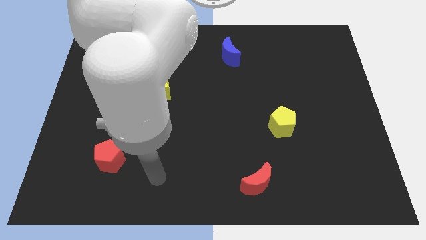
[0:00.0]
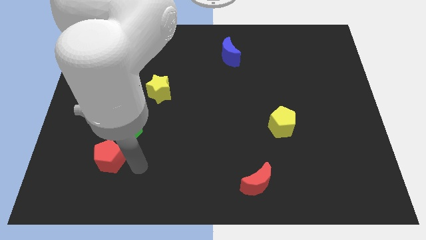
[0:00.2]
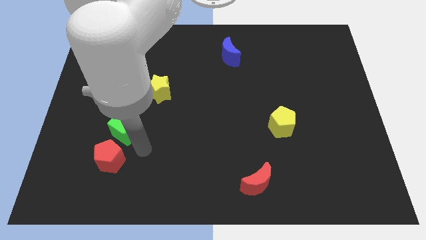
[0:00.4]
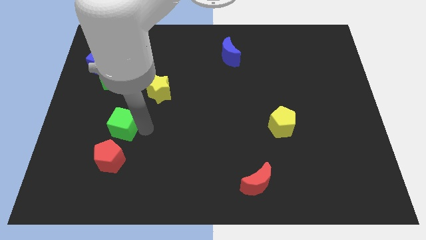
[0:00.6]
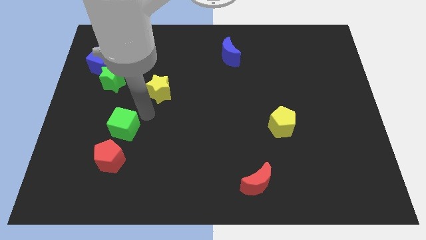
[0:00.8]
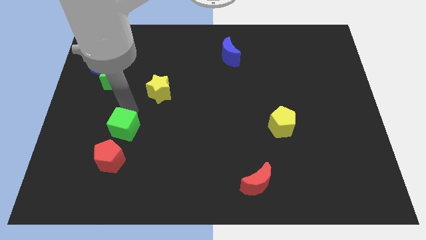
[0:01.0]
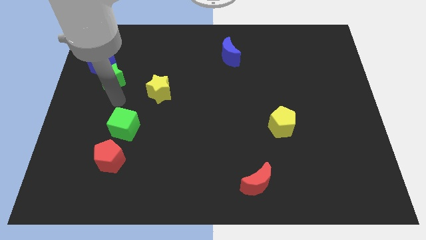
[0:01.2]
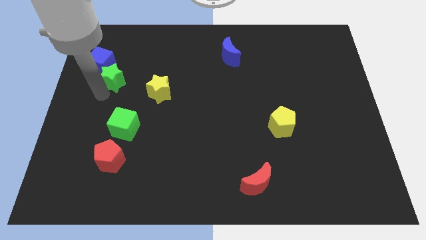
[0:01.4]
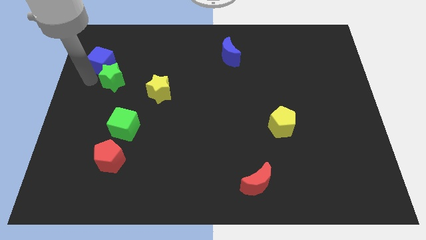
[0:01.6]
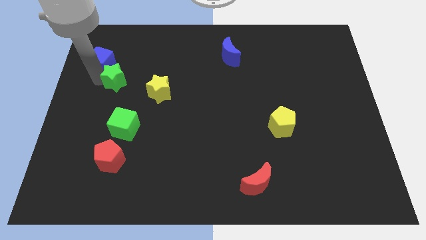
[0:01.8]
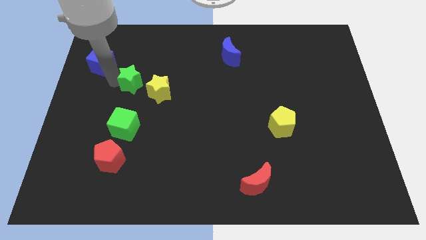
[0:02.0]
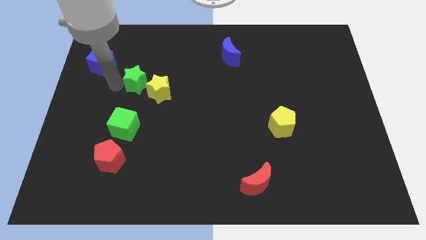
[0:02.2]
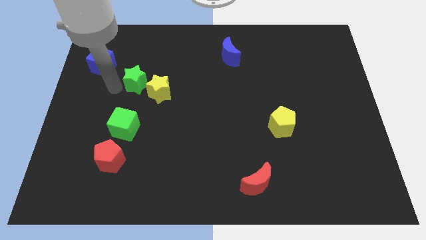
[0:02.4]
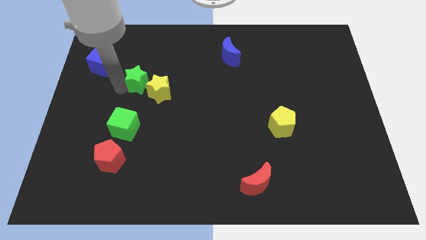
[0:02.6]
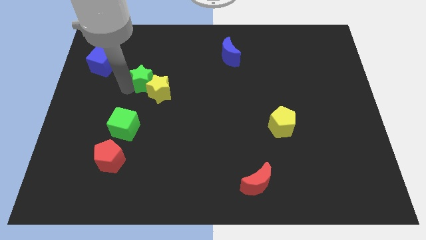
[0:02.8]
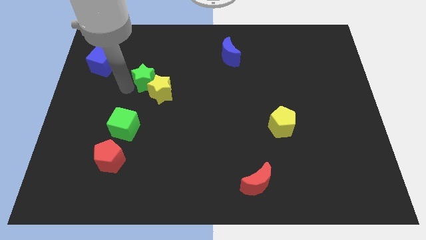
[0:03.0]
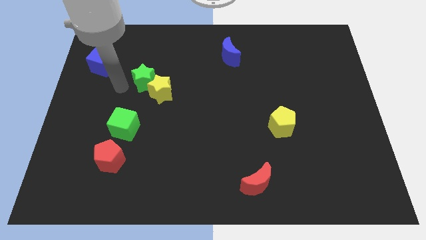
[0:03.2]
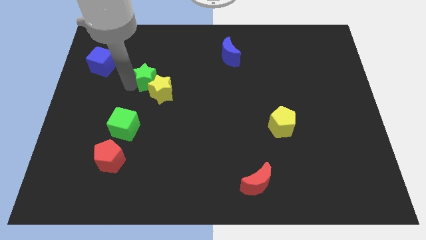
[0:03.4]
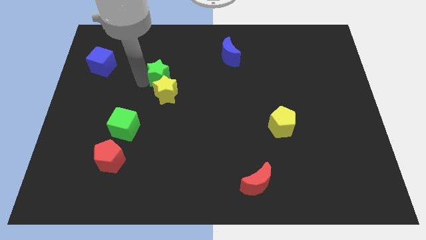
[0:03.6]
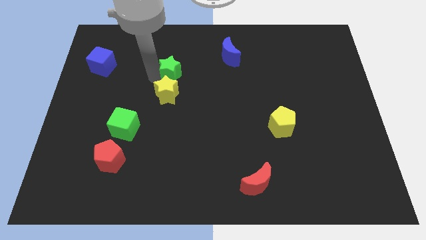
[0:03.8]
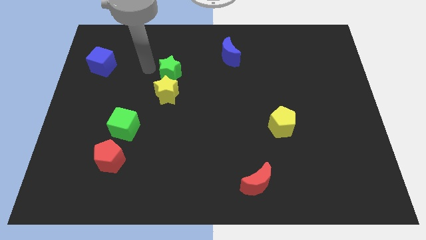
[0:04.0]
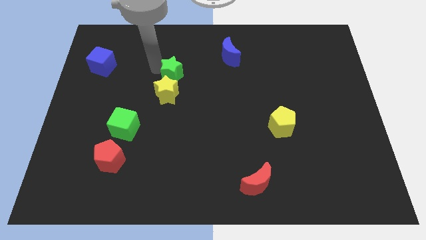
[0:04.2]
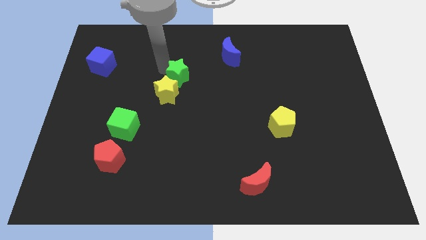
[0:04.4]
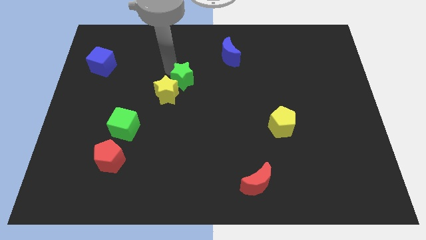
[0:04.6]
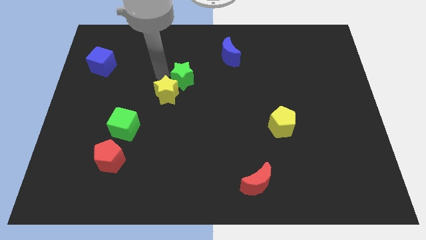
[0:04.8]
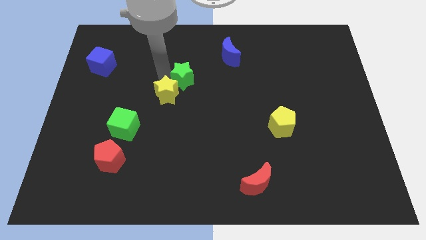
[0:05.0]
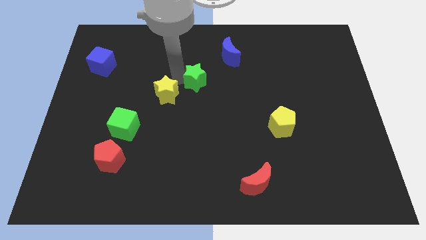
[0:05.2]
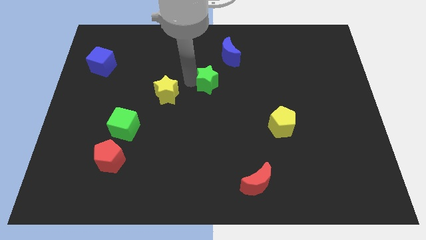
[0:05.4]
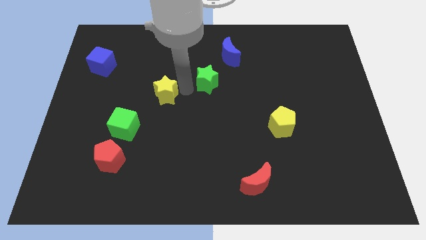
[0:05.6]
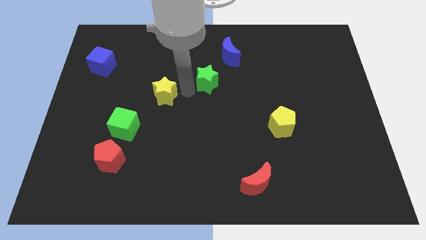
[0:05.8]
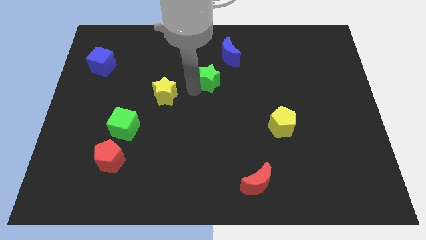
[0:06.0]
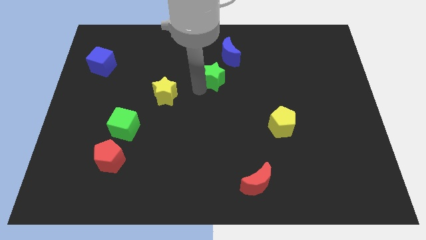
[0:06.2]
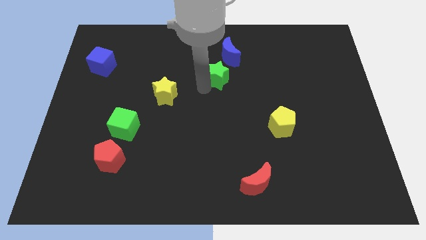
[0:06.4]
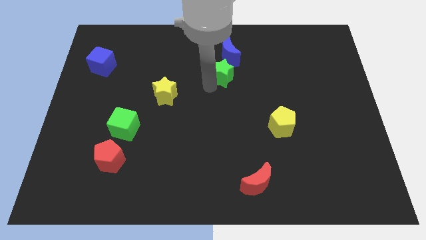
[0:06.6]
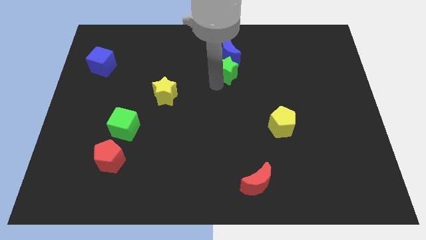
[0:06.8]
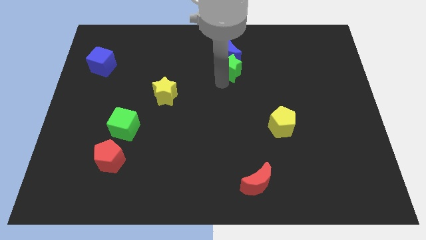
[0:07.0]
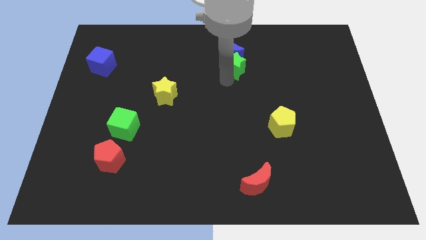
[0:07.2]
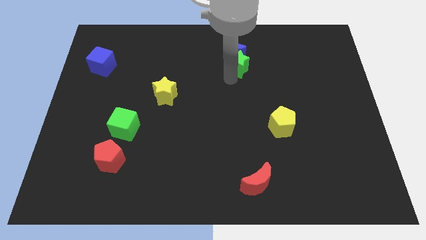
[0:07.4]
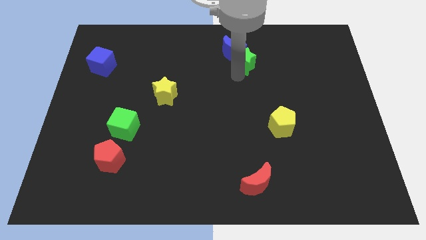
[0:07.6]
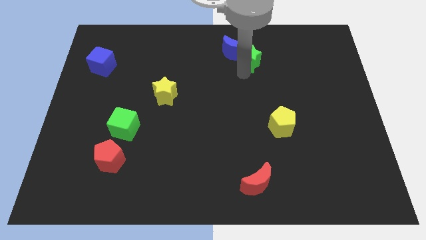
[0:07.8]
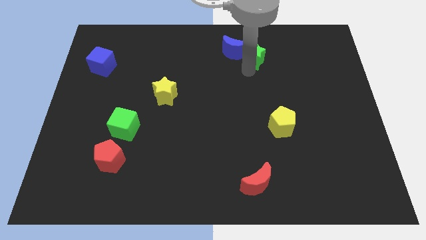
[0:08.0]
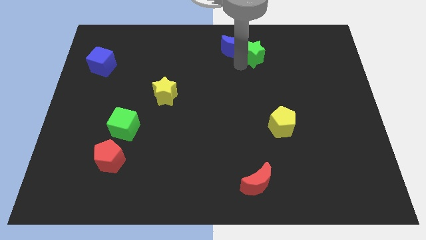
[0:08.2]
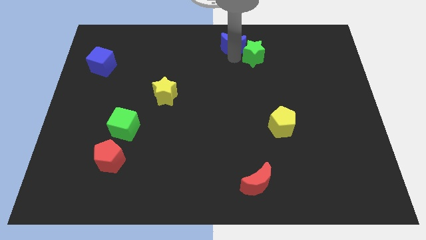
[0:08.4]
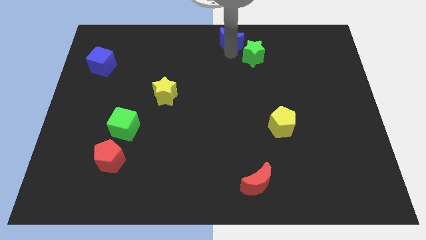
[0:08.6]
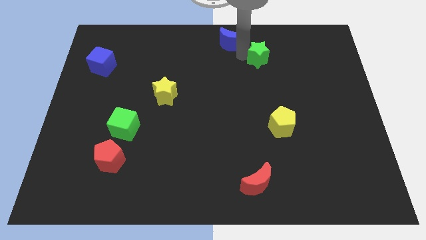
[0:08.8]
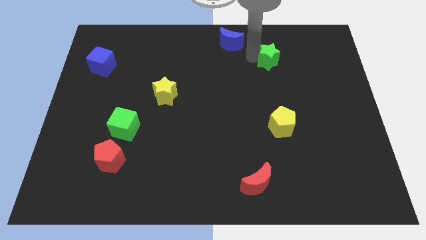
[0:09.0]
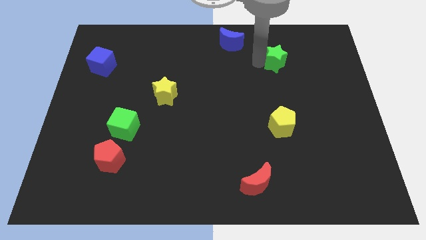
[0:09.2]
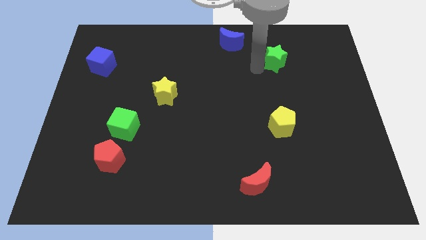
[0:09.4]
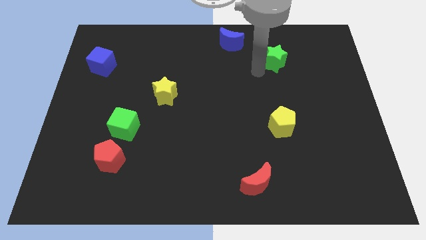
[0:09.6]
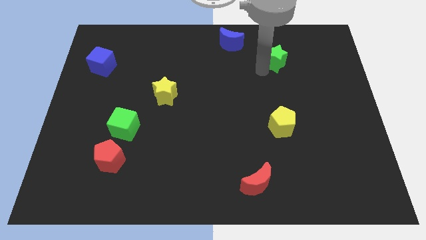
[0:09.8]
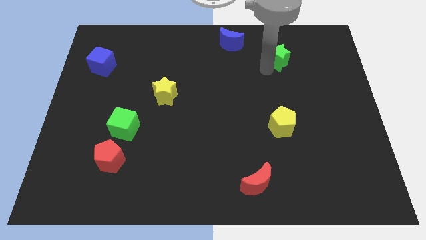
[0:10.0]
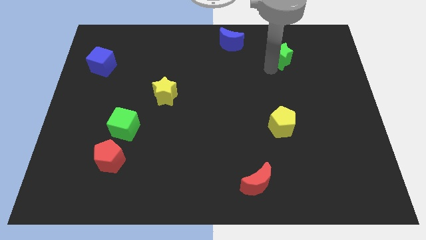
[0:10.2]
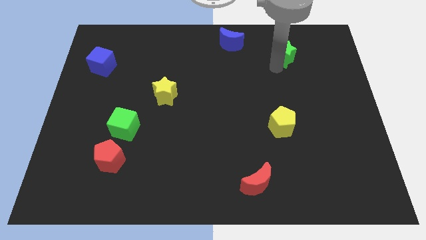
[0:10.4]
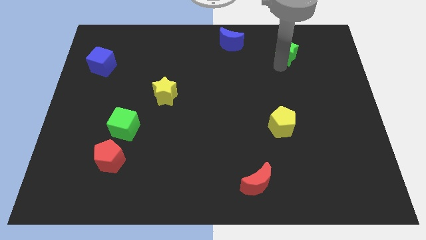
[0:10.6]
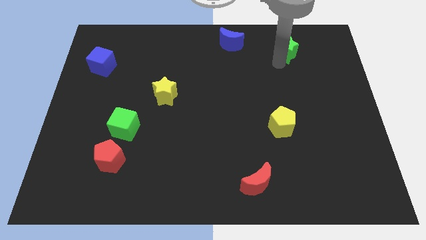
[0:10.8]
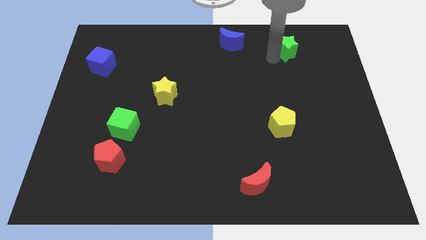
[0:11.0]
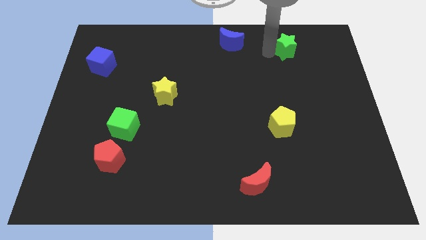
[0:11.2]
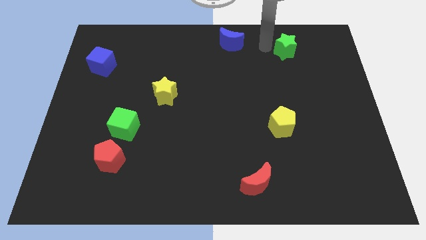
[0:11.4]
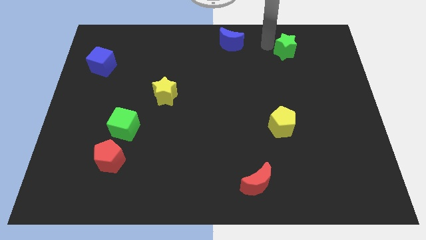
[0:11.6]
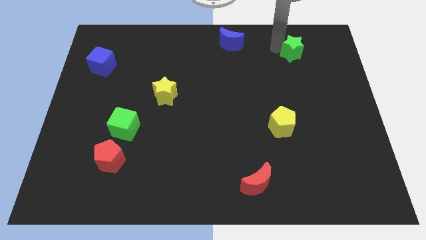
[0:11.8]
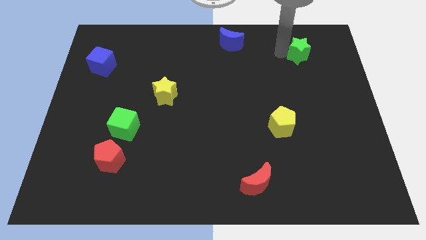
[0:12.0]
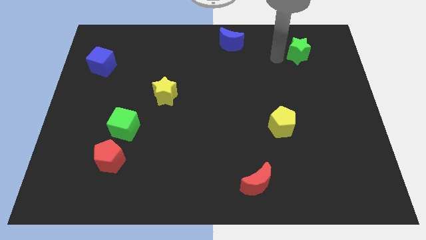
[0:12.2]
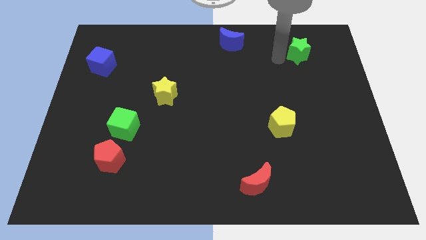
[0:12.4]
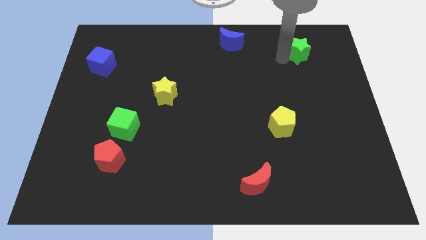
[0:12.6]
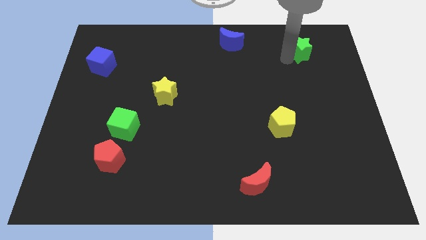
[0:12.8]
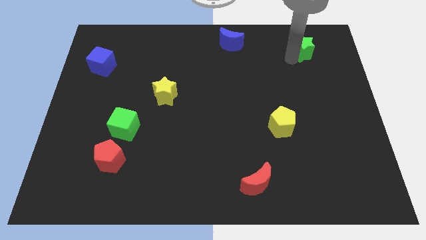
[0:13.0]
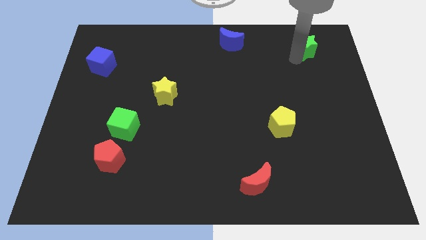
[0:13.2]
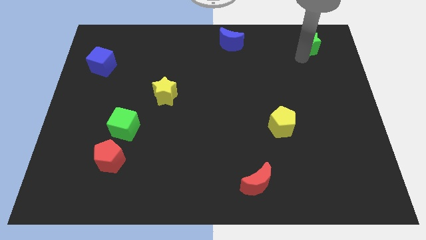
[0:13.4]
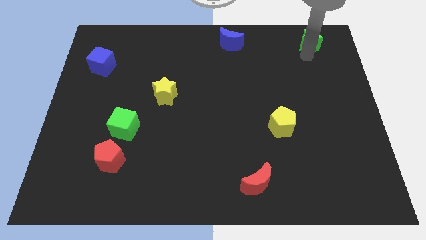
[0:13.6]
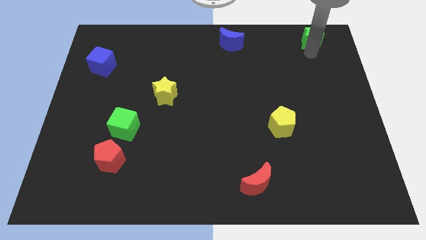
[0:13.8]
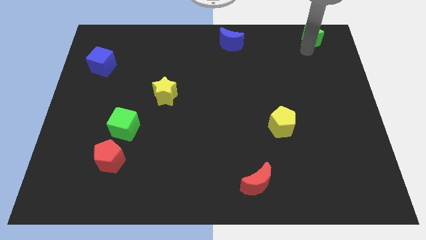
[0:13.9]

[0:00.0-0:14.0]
put the green star to the top right of the board
